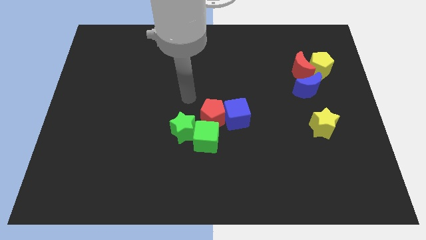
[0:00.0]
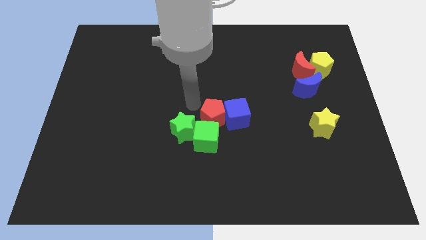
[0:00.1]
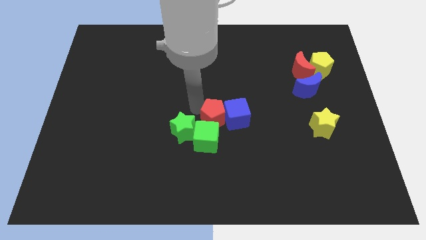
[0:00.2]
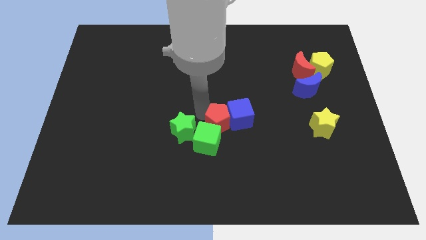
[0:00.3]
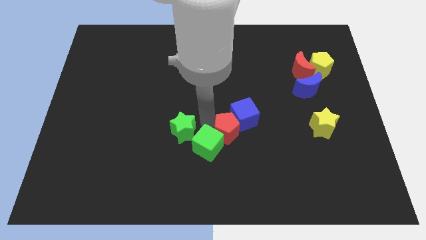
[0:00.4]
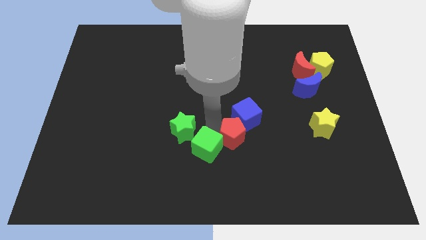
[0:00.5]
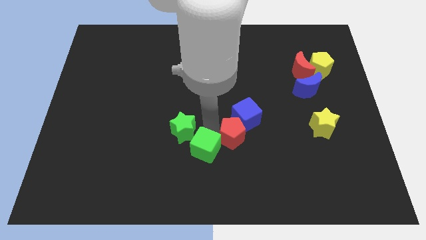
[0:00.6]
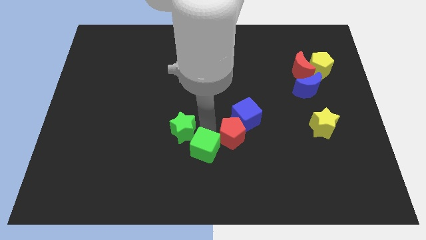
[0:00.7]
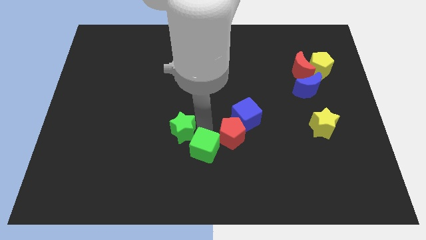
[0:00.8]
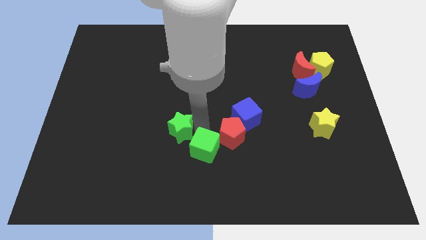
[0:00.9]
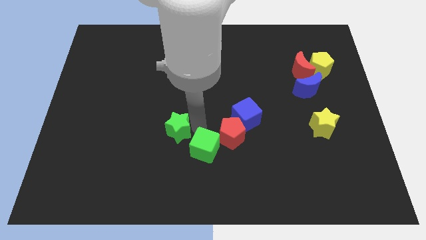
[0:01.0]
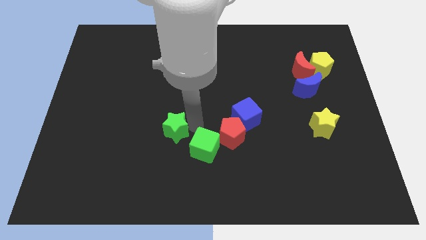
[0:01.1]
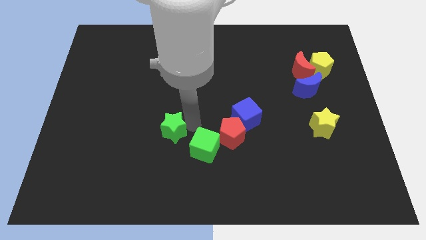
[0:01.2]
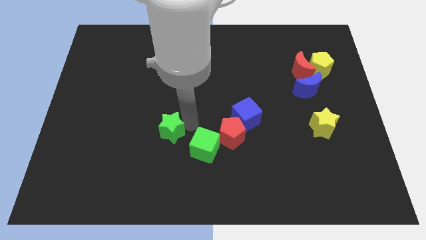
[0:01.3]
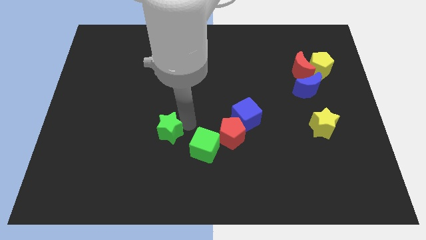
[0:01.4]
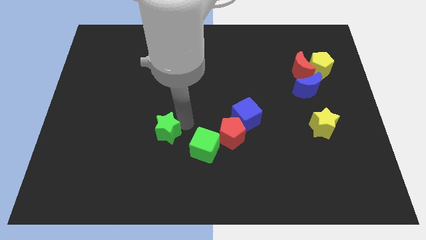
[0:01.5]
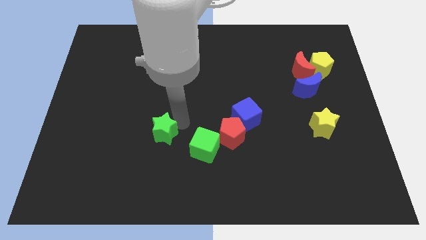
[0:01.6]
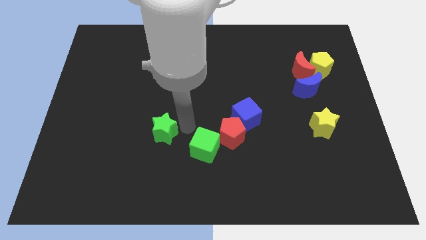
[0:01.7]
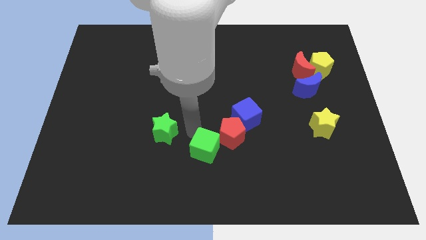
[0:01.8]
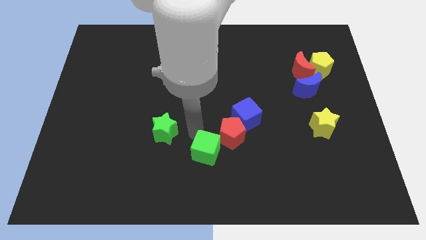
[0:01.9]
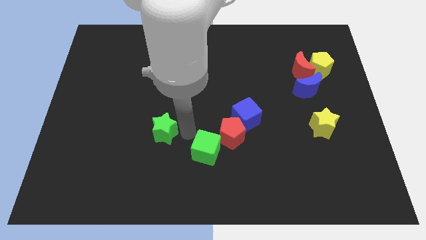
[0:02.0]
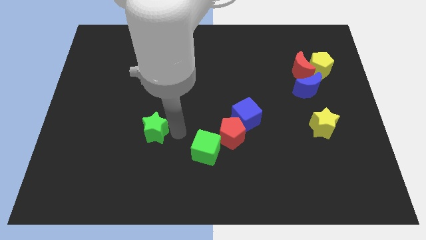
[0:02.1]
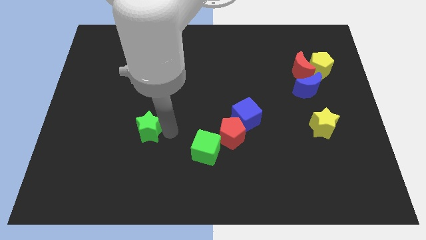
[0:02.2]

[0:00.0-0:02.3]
slightly slide the green star left

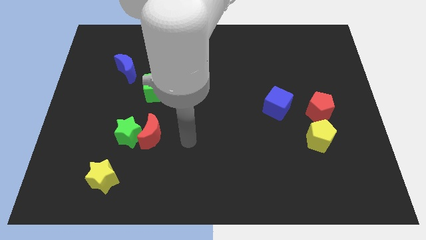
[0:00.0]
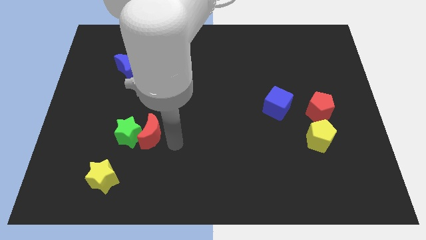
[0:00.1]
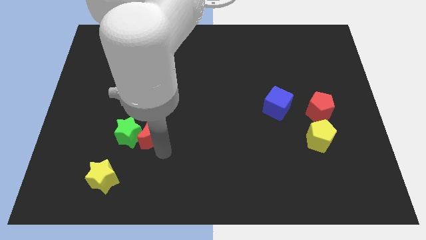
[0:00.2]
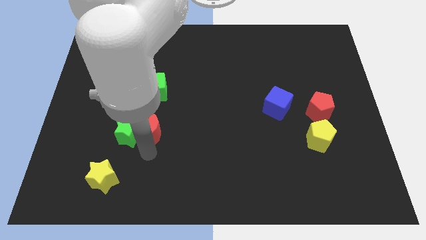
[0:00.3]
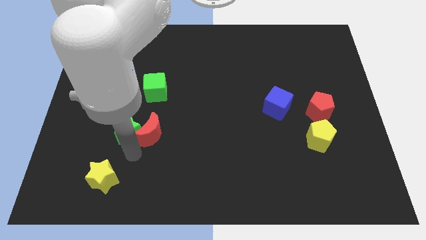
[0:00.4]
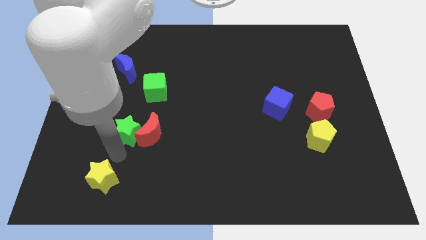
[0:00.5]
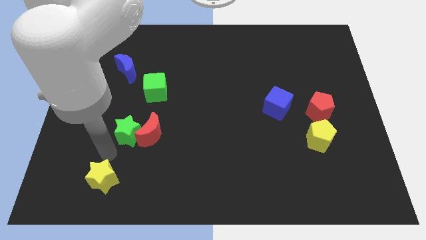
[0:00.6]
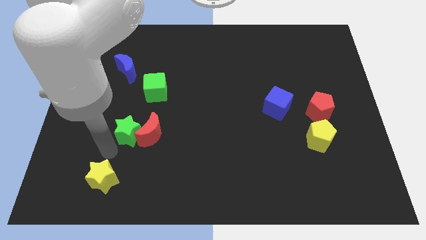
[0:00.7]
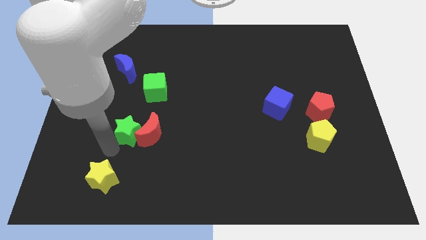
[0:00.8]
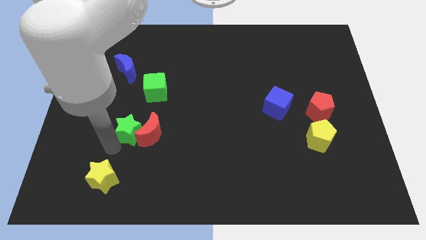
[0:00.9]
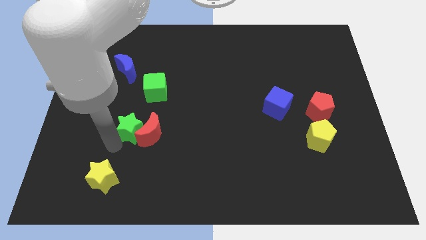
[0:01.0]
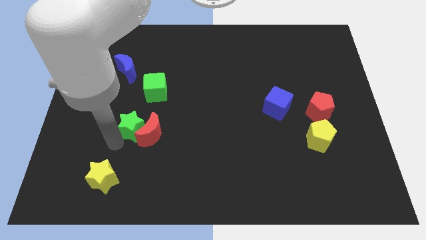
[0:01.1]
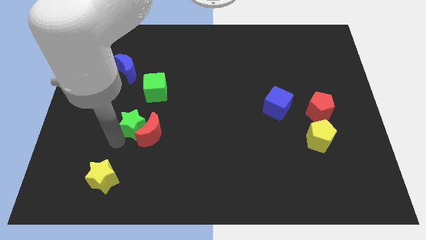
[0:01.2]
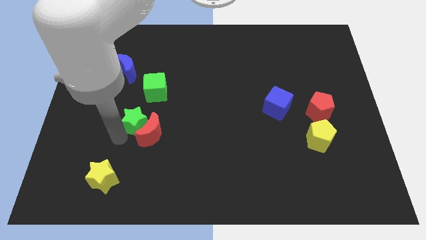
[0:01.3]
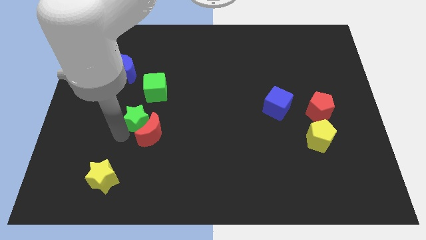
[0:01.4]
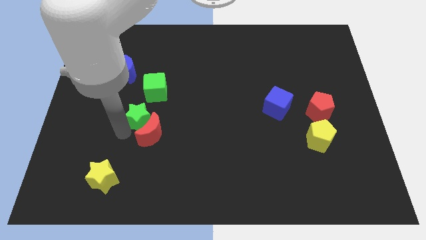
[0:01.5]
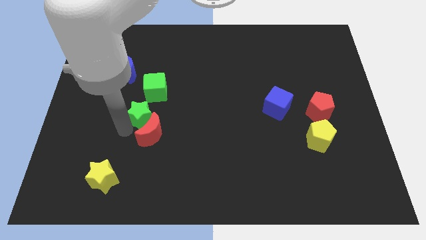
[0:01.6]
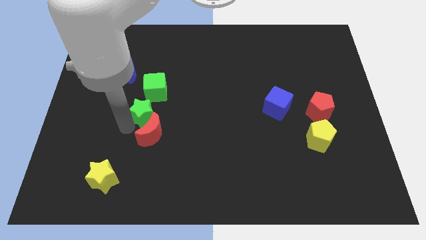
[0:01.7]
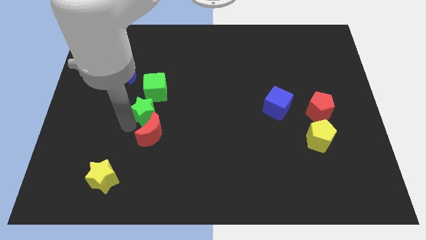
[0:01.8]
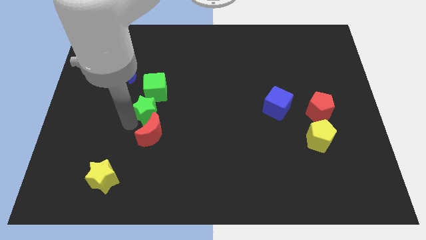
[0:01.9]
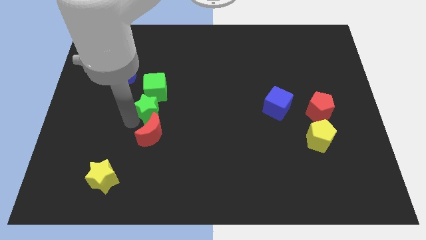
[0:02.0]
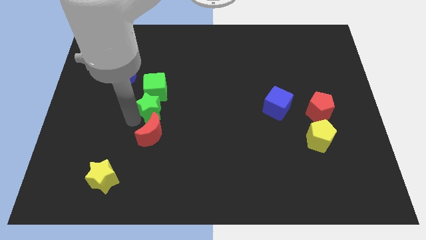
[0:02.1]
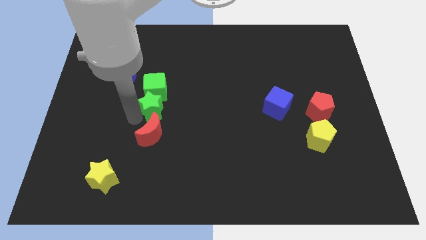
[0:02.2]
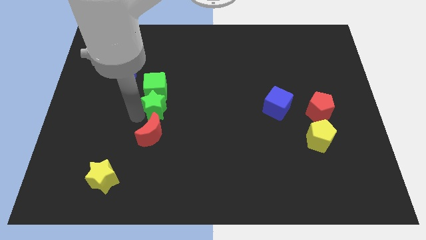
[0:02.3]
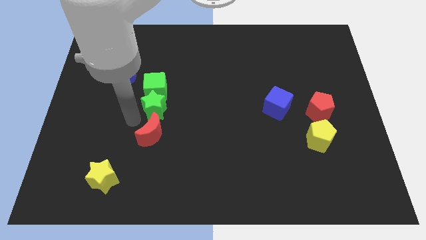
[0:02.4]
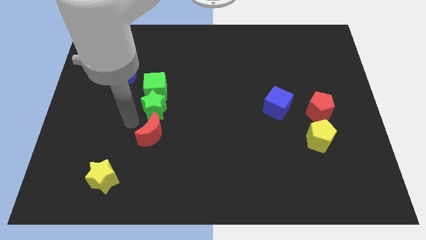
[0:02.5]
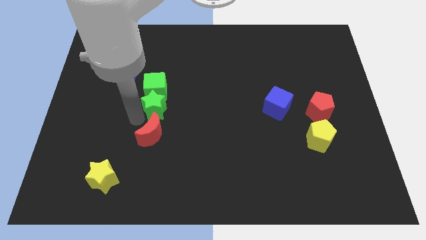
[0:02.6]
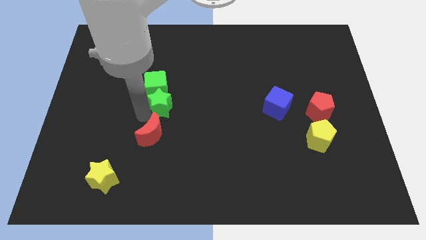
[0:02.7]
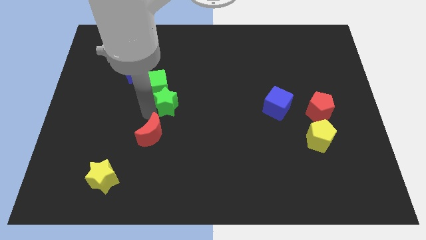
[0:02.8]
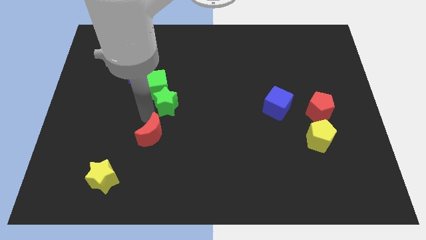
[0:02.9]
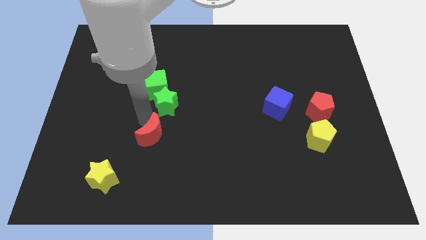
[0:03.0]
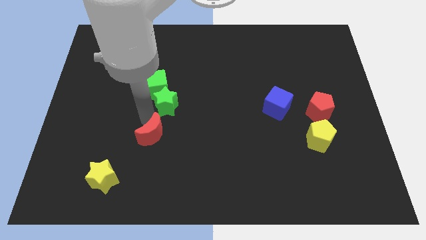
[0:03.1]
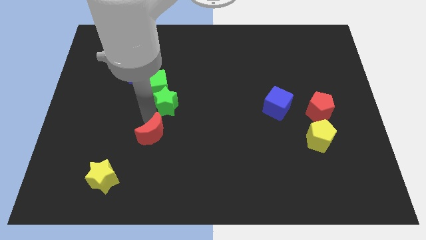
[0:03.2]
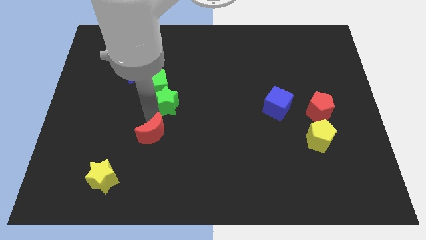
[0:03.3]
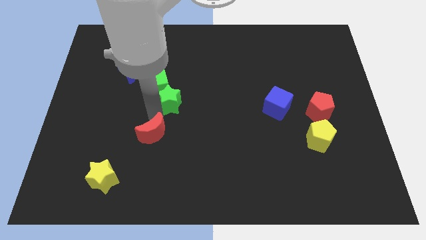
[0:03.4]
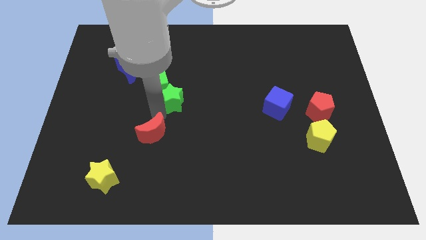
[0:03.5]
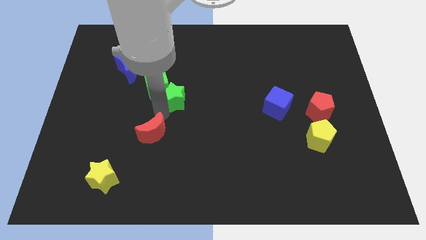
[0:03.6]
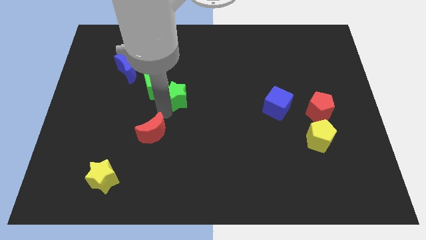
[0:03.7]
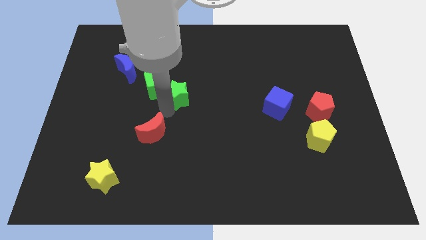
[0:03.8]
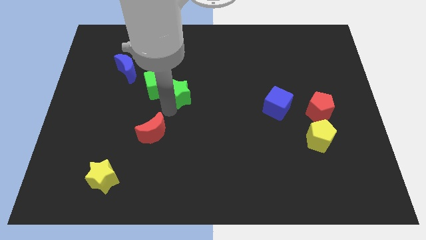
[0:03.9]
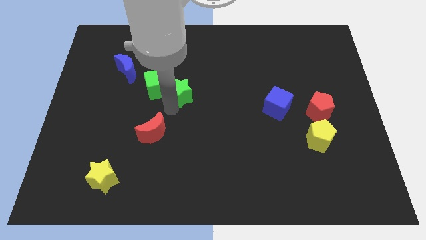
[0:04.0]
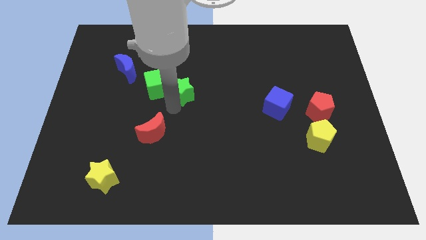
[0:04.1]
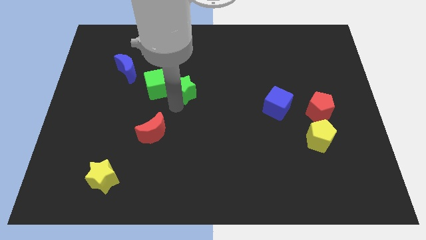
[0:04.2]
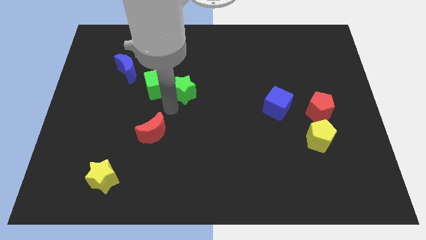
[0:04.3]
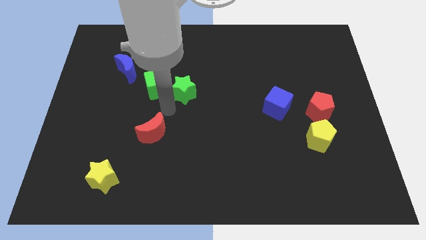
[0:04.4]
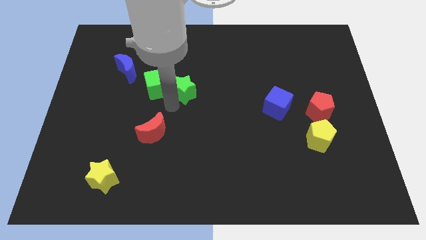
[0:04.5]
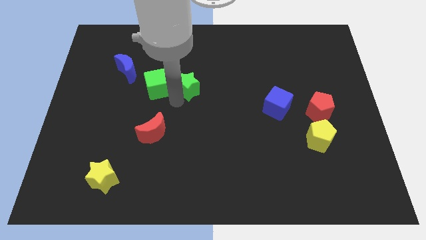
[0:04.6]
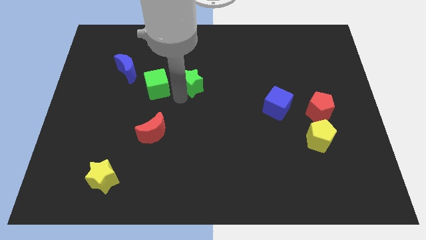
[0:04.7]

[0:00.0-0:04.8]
push the green star up and right diagonally

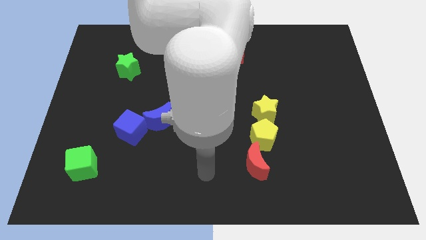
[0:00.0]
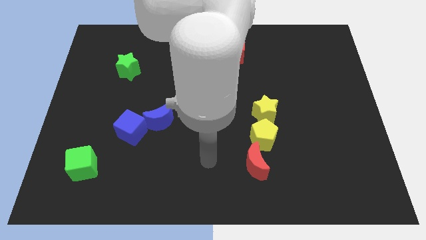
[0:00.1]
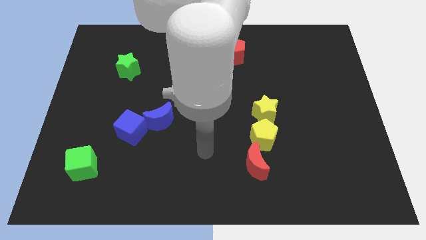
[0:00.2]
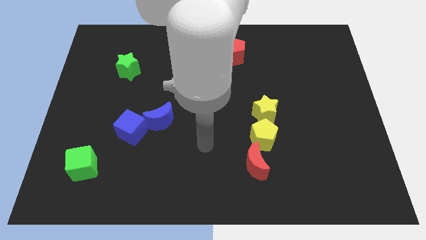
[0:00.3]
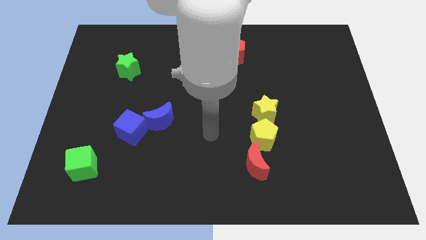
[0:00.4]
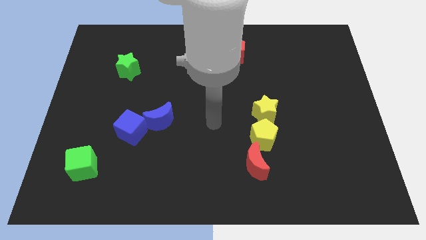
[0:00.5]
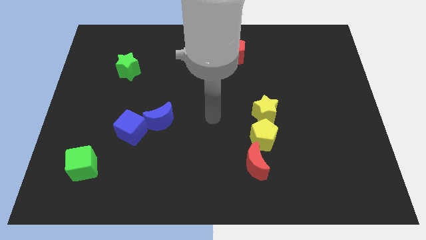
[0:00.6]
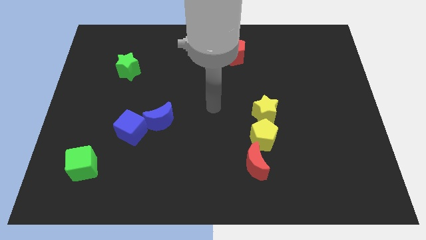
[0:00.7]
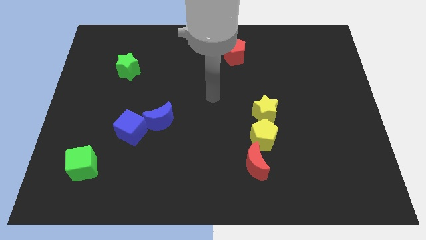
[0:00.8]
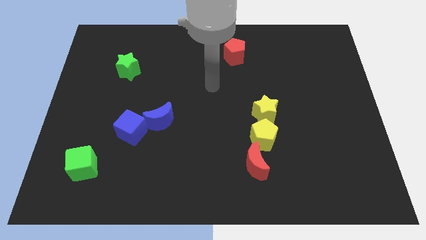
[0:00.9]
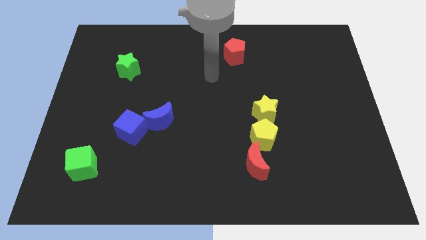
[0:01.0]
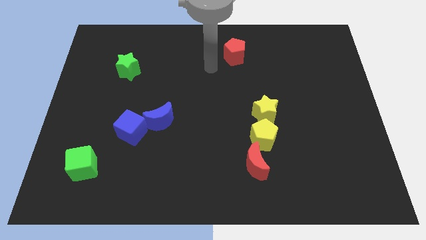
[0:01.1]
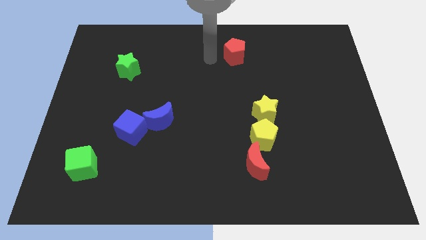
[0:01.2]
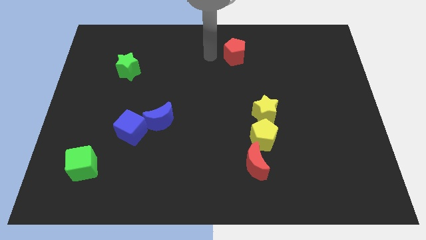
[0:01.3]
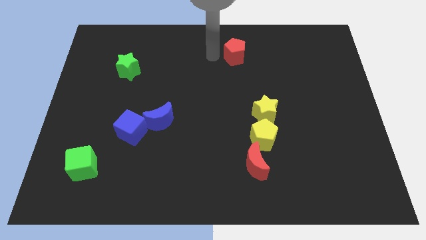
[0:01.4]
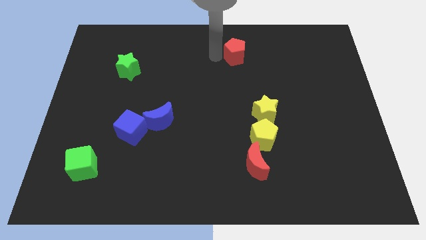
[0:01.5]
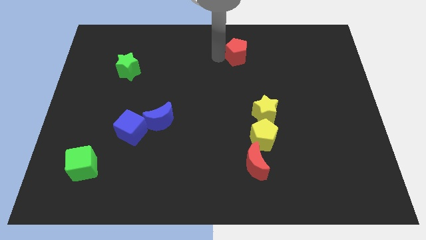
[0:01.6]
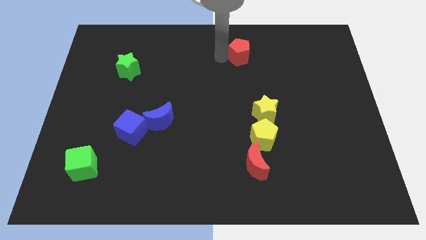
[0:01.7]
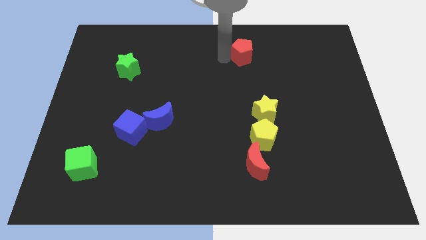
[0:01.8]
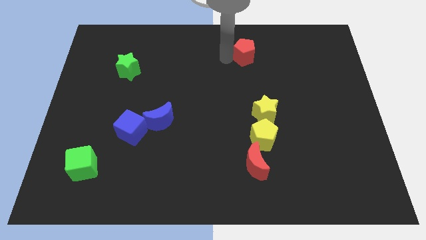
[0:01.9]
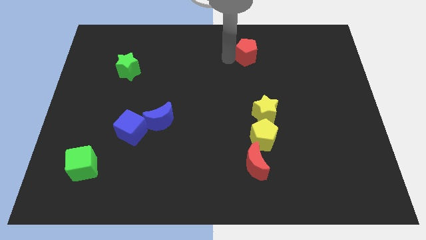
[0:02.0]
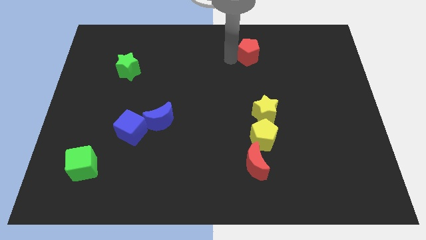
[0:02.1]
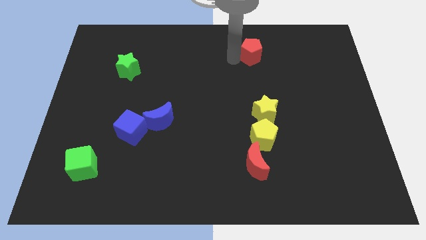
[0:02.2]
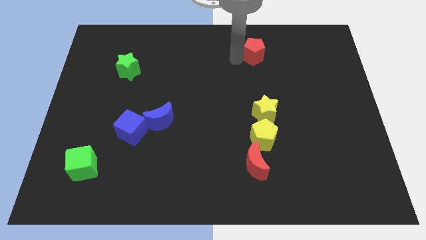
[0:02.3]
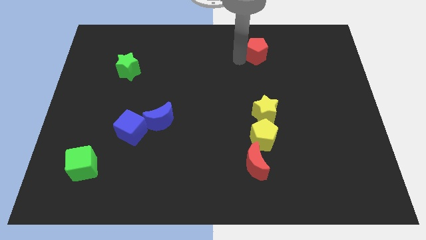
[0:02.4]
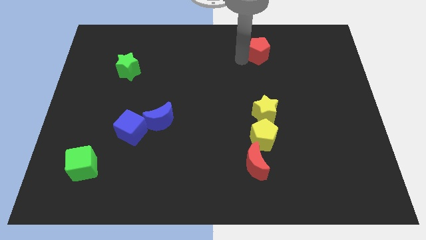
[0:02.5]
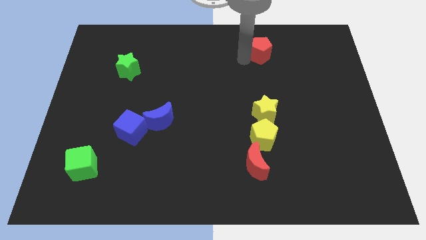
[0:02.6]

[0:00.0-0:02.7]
move the red pentagon a bit to the right
